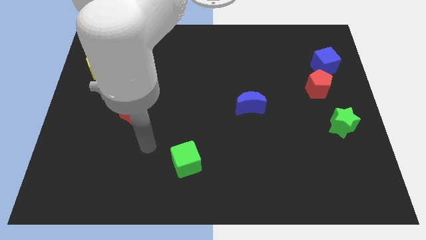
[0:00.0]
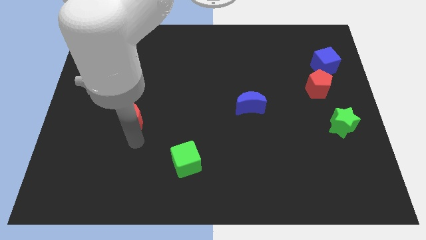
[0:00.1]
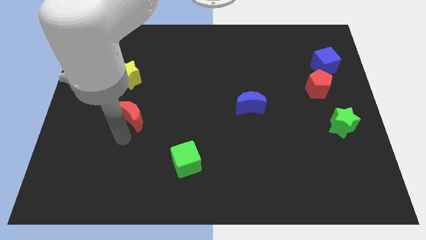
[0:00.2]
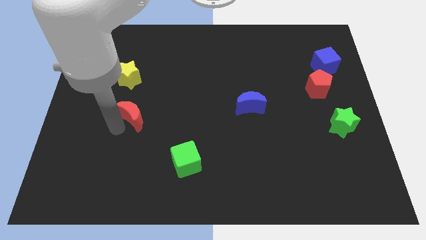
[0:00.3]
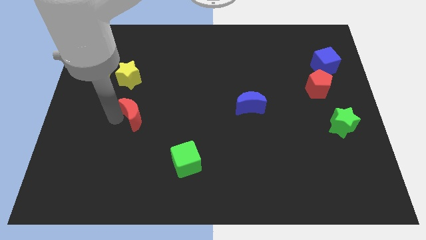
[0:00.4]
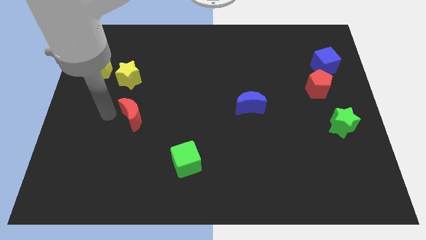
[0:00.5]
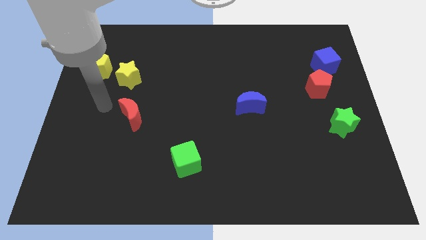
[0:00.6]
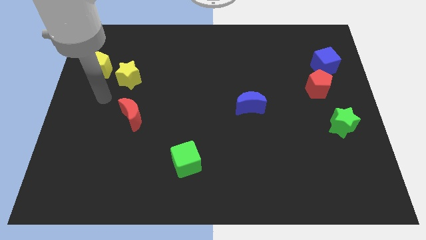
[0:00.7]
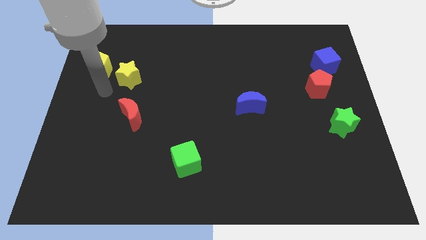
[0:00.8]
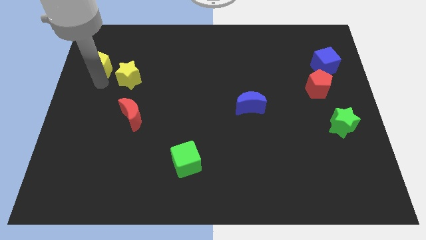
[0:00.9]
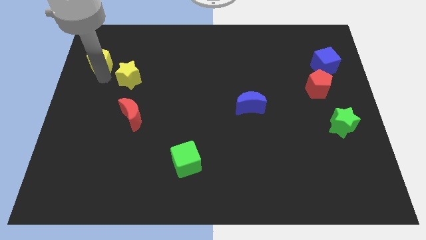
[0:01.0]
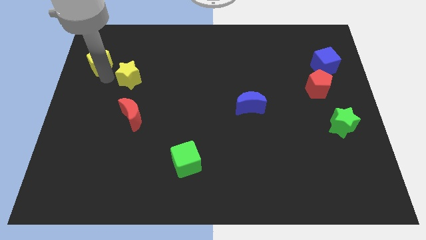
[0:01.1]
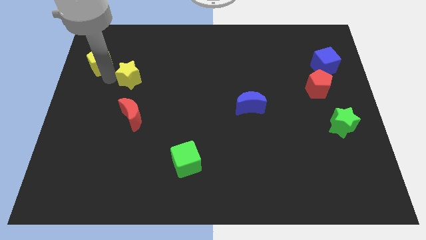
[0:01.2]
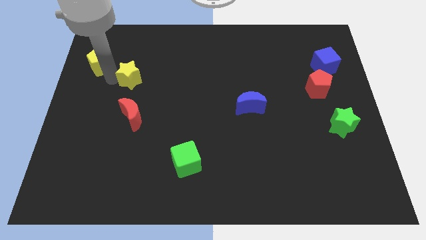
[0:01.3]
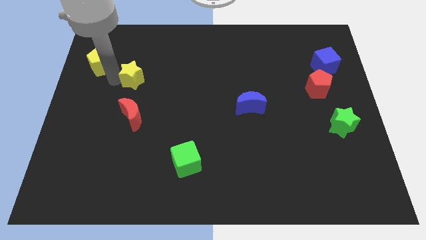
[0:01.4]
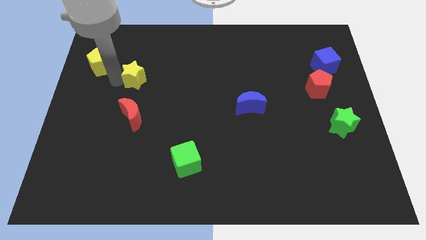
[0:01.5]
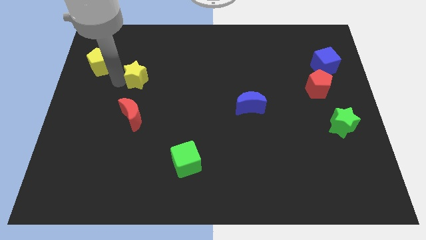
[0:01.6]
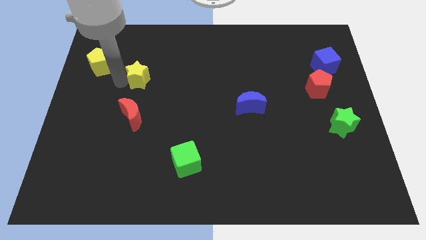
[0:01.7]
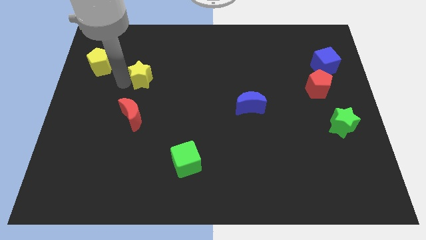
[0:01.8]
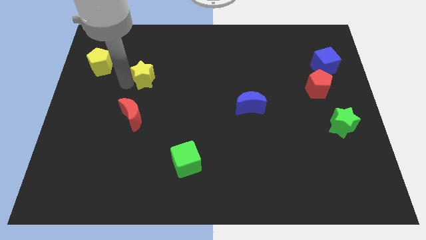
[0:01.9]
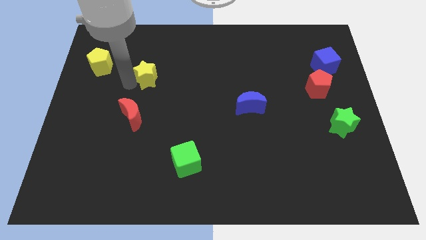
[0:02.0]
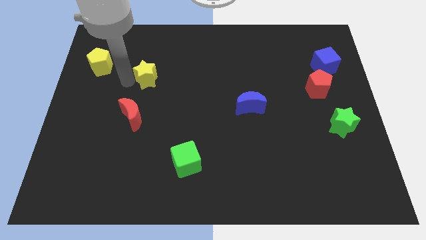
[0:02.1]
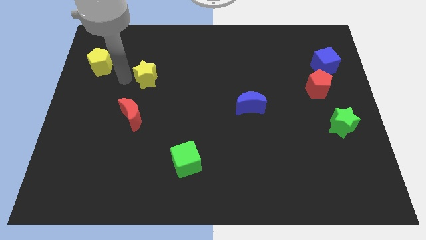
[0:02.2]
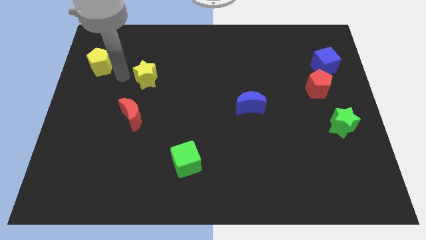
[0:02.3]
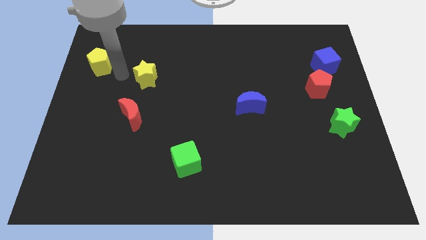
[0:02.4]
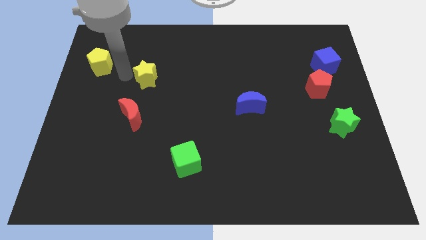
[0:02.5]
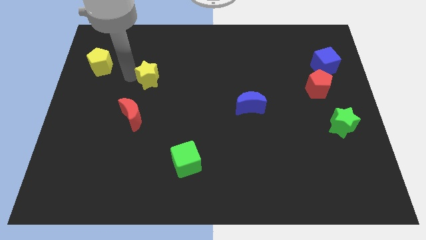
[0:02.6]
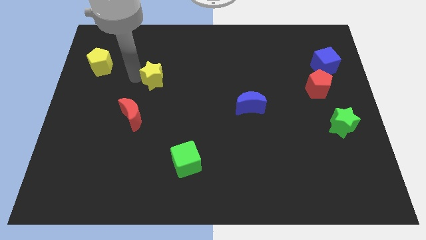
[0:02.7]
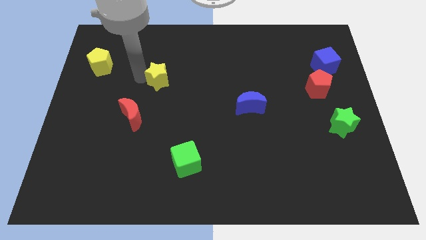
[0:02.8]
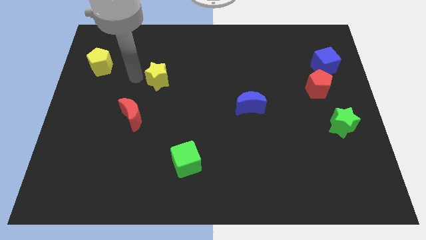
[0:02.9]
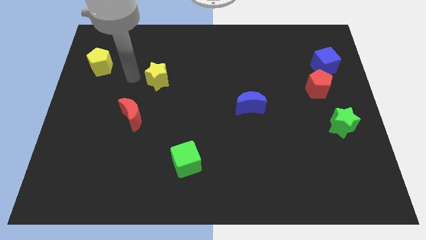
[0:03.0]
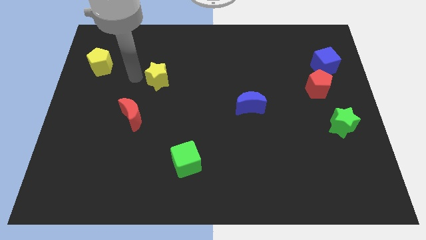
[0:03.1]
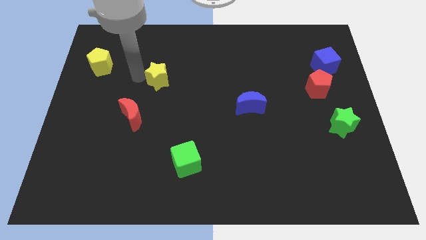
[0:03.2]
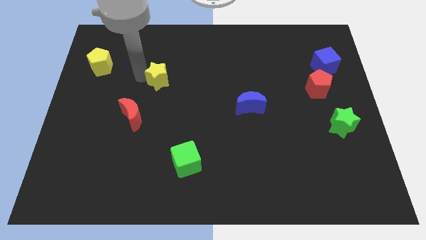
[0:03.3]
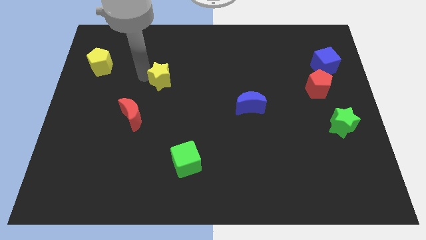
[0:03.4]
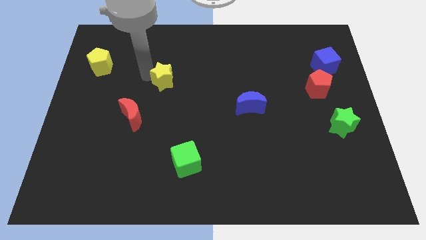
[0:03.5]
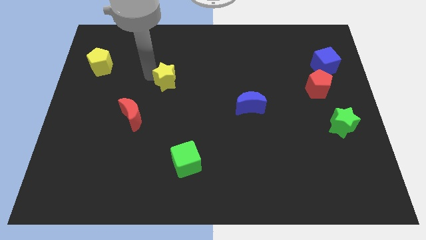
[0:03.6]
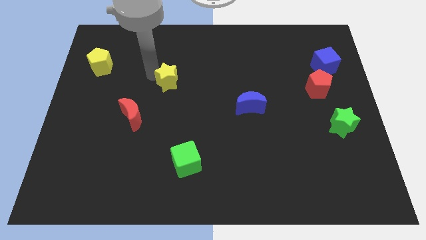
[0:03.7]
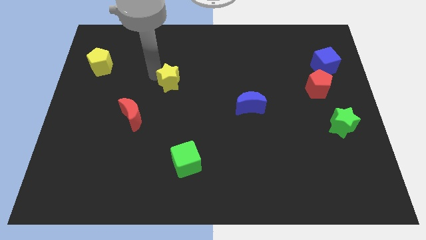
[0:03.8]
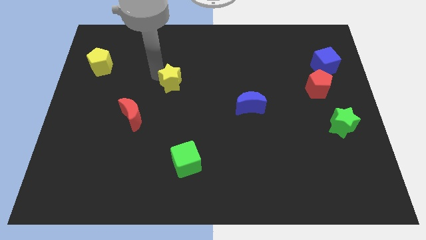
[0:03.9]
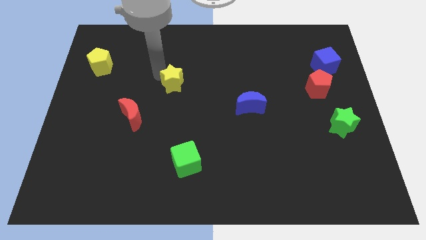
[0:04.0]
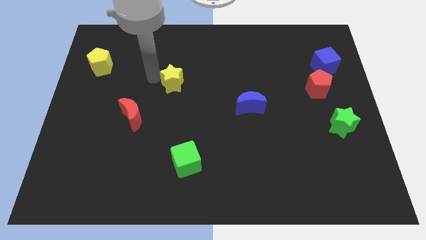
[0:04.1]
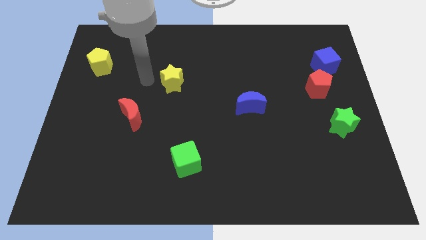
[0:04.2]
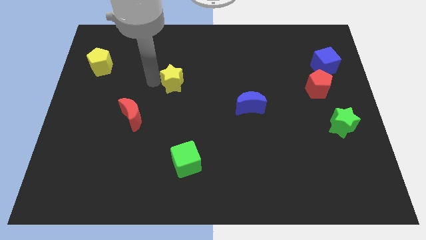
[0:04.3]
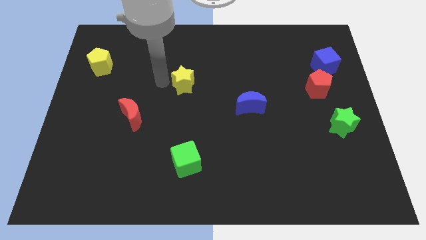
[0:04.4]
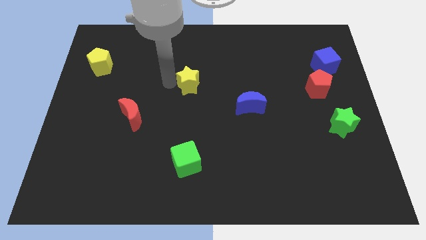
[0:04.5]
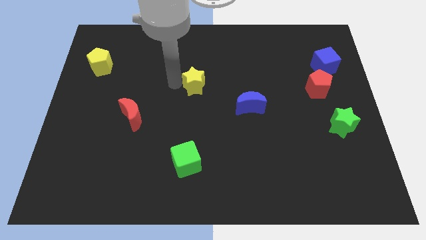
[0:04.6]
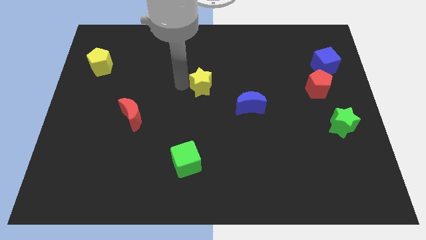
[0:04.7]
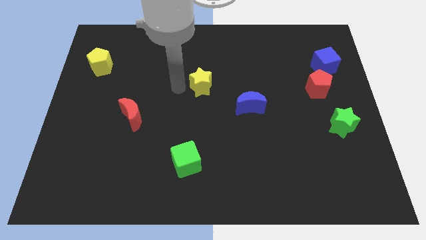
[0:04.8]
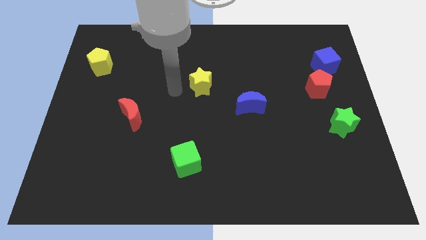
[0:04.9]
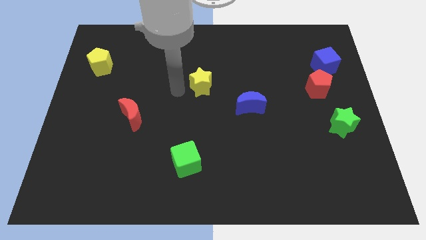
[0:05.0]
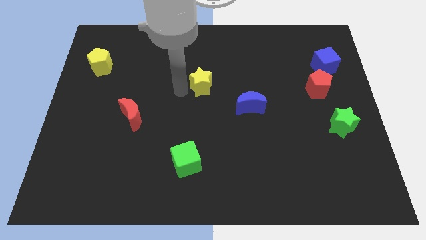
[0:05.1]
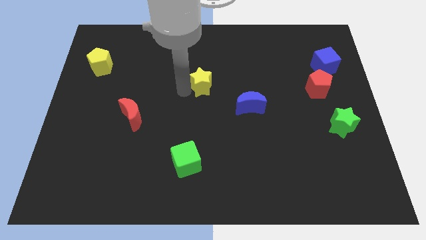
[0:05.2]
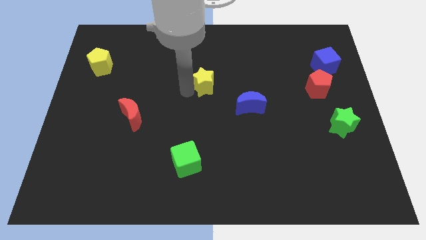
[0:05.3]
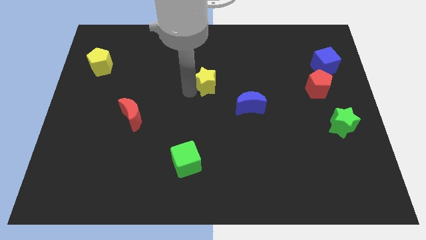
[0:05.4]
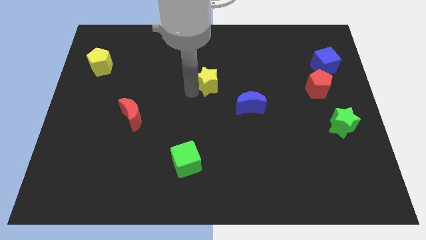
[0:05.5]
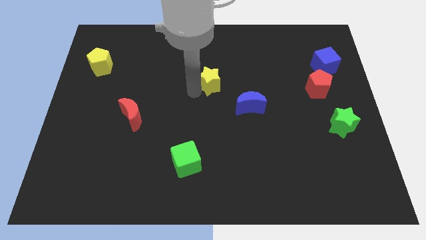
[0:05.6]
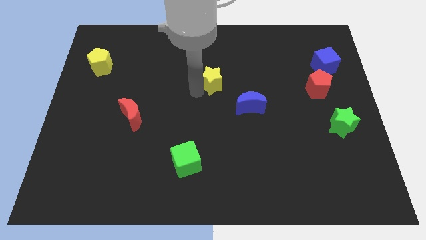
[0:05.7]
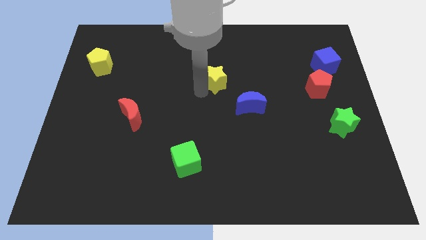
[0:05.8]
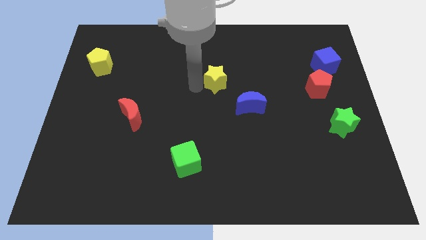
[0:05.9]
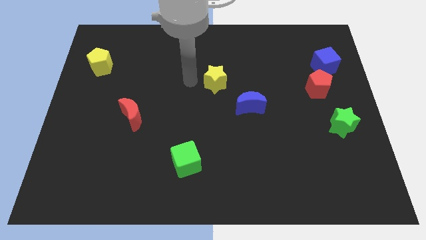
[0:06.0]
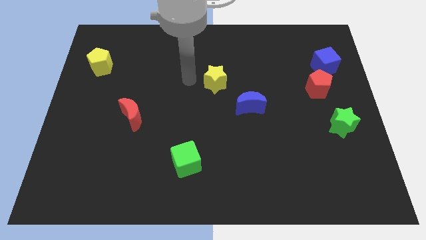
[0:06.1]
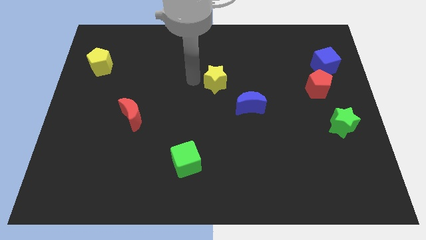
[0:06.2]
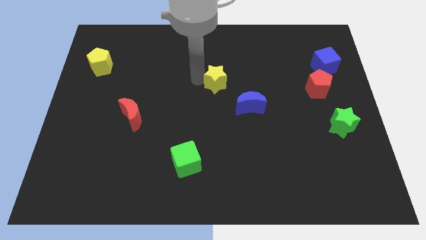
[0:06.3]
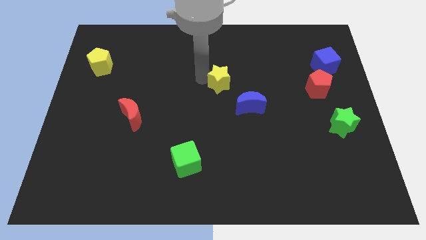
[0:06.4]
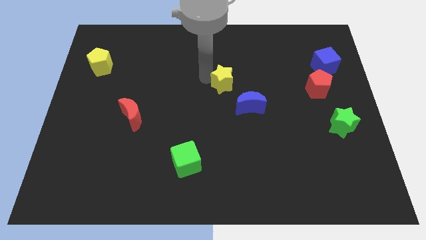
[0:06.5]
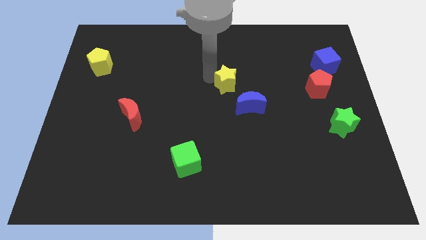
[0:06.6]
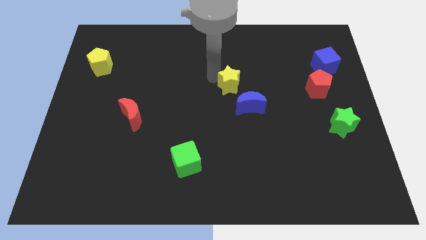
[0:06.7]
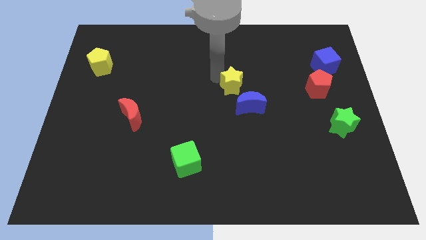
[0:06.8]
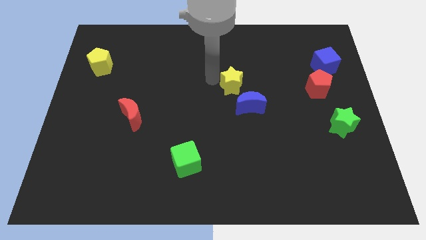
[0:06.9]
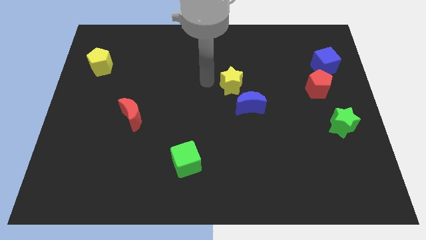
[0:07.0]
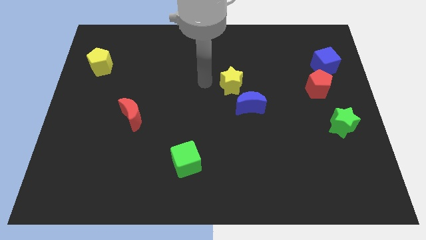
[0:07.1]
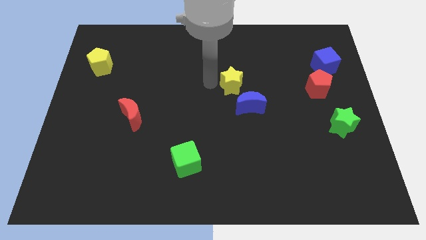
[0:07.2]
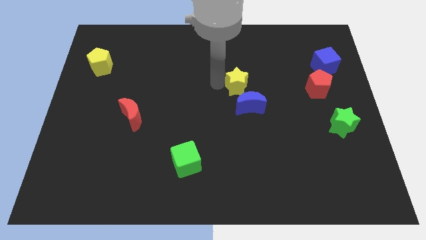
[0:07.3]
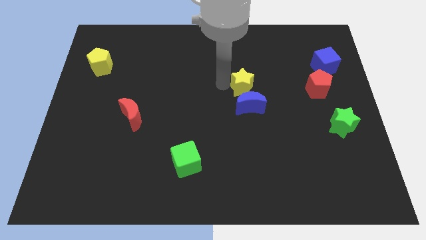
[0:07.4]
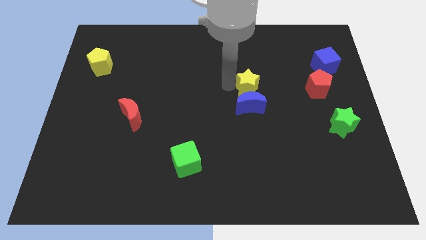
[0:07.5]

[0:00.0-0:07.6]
slide the yellow star diagonally up and to the right of the blue moon
